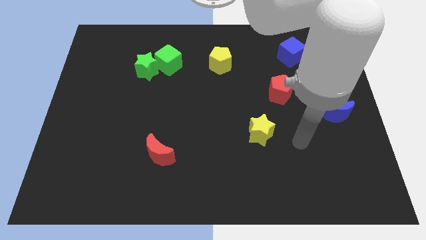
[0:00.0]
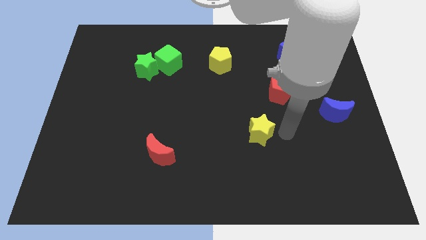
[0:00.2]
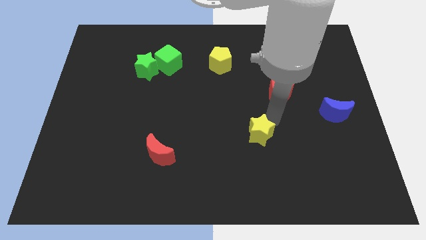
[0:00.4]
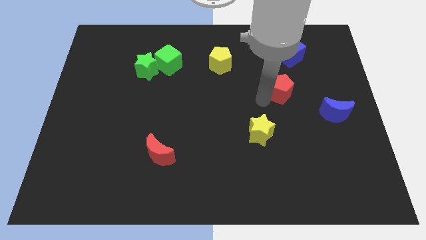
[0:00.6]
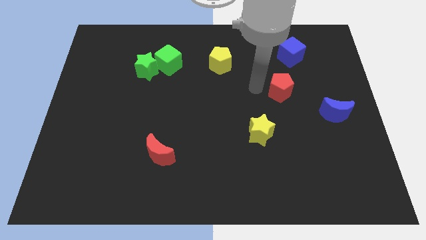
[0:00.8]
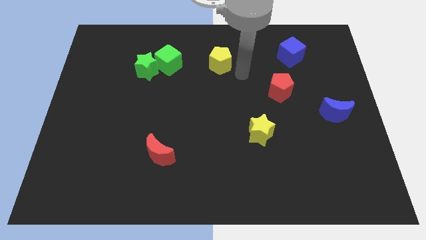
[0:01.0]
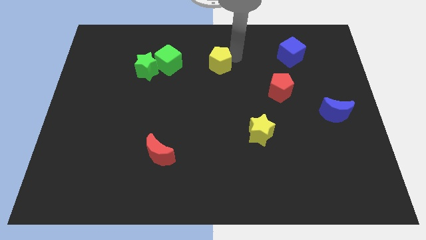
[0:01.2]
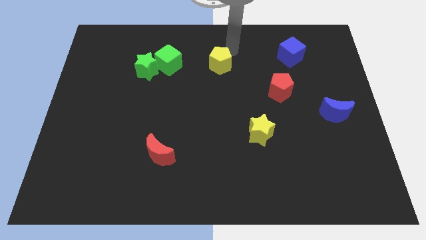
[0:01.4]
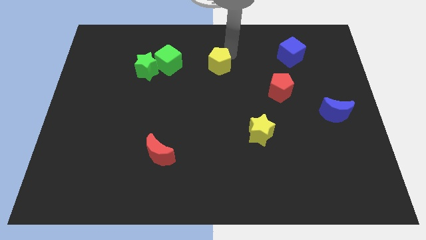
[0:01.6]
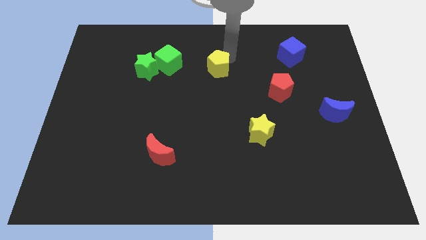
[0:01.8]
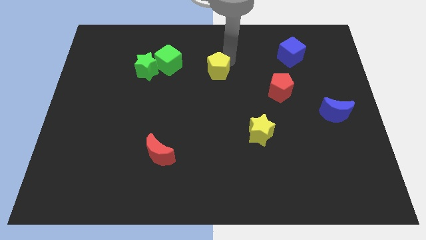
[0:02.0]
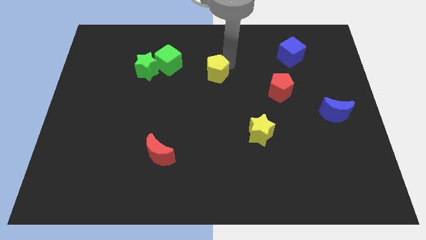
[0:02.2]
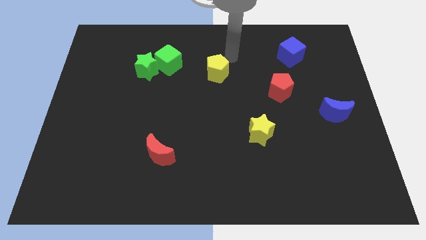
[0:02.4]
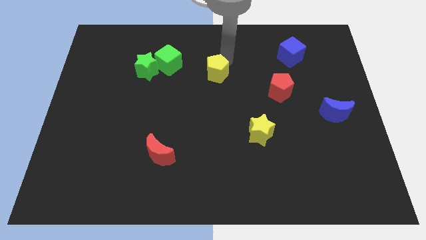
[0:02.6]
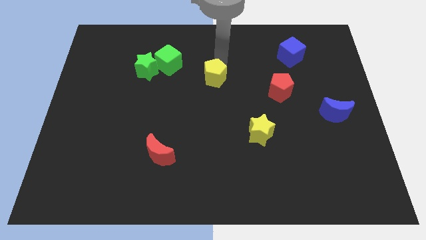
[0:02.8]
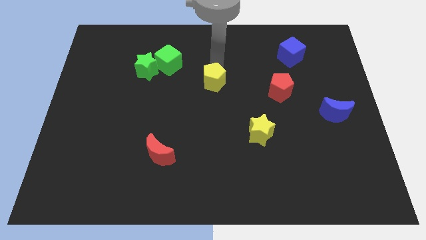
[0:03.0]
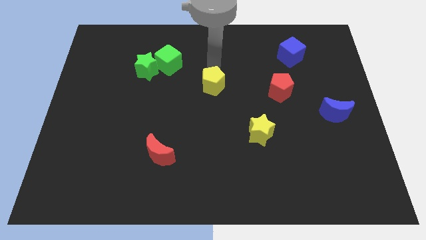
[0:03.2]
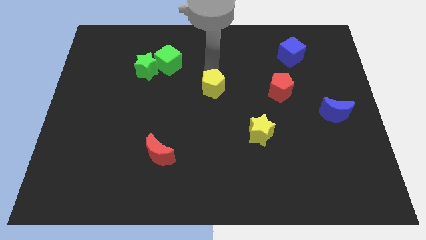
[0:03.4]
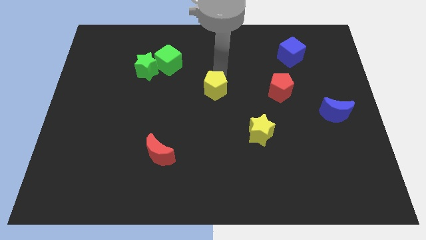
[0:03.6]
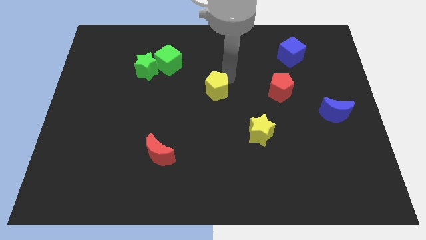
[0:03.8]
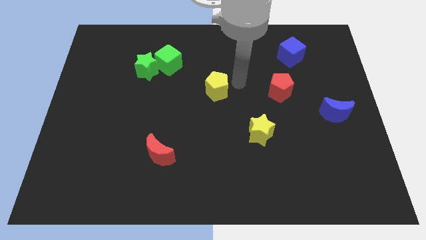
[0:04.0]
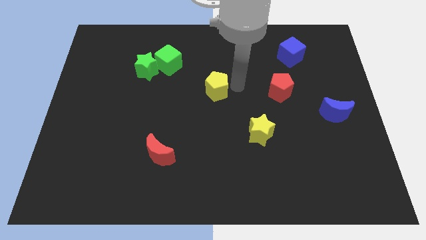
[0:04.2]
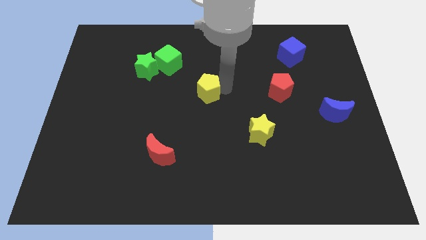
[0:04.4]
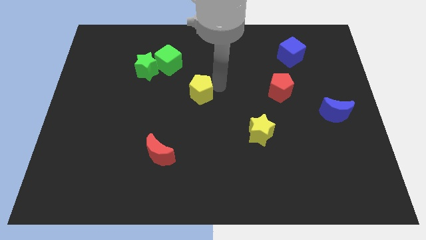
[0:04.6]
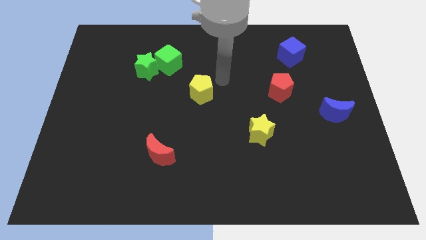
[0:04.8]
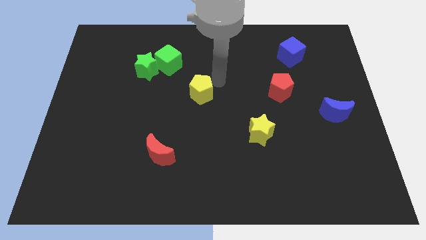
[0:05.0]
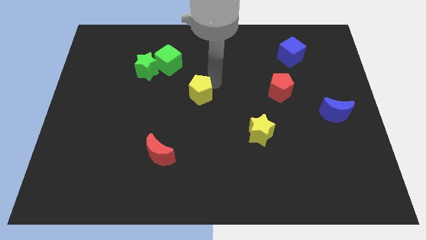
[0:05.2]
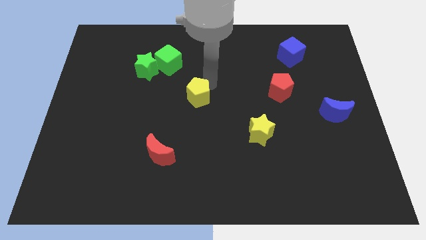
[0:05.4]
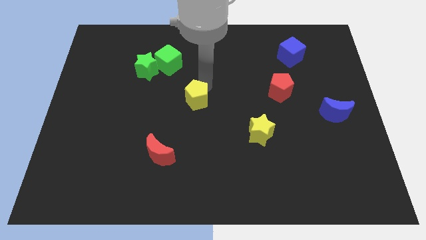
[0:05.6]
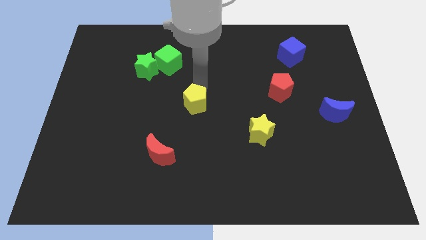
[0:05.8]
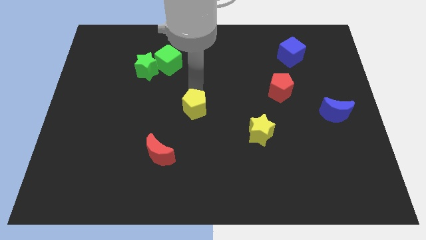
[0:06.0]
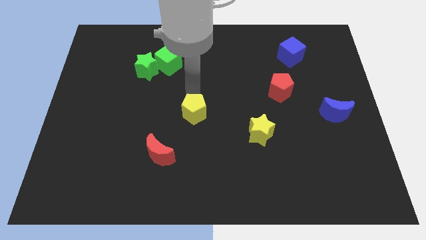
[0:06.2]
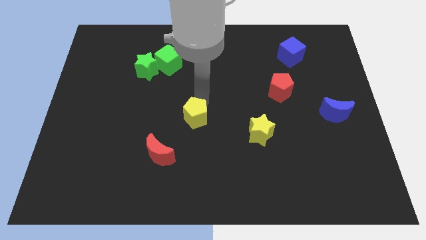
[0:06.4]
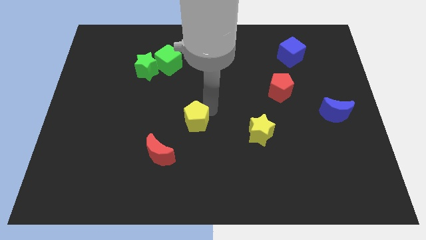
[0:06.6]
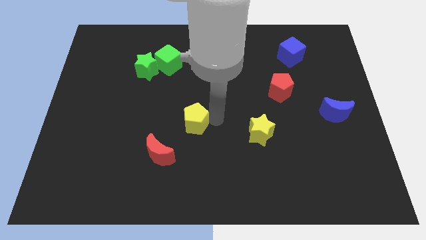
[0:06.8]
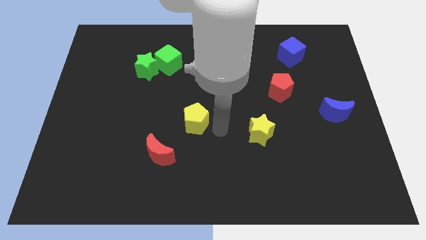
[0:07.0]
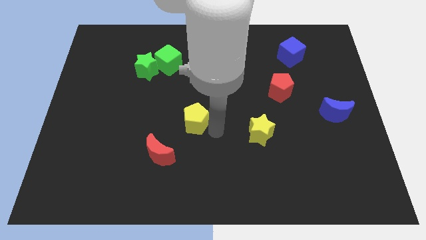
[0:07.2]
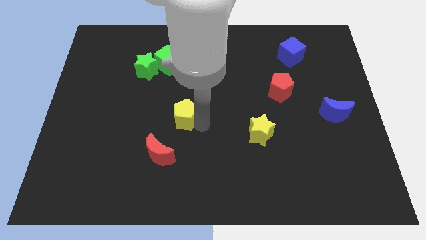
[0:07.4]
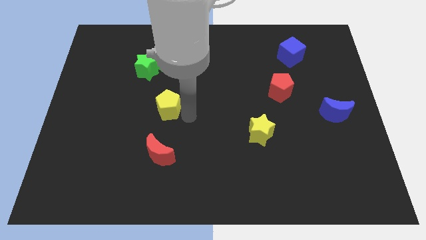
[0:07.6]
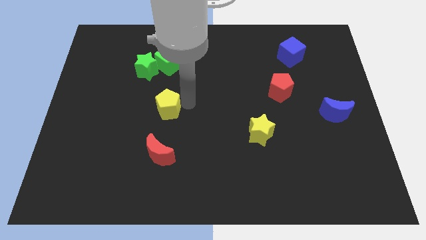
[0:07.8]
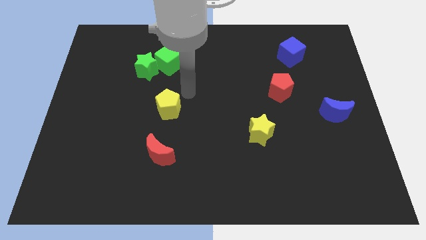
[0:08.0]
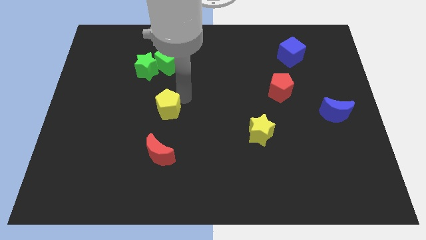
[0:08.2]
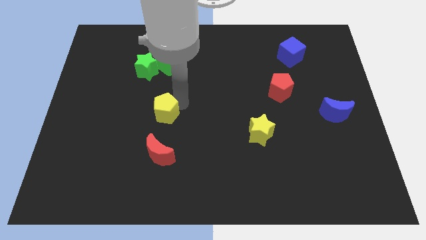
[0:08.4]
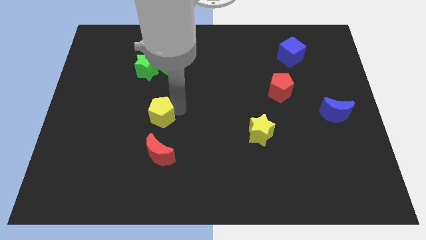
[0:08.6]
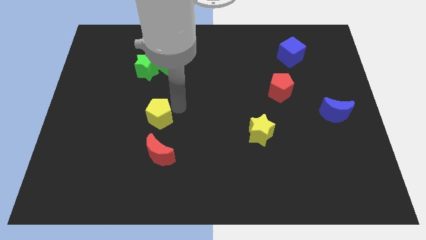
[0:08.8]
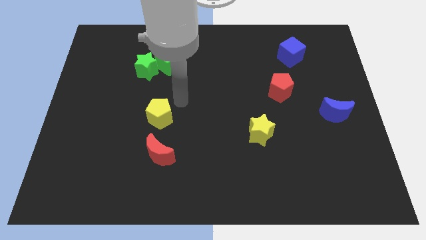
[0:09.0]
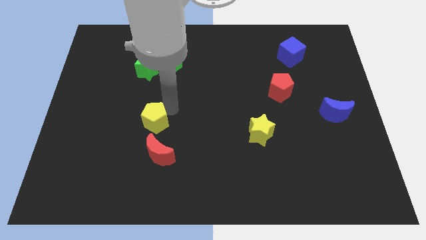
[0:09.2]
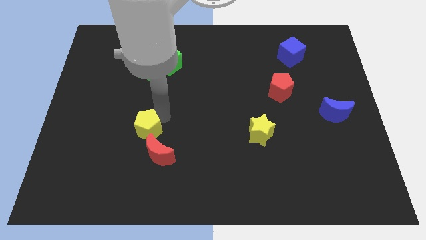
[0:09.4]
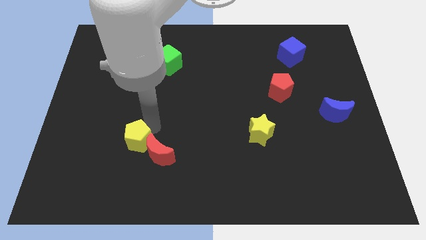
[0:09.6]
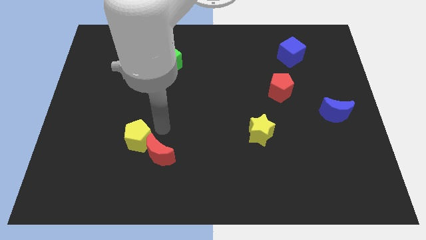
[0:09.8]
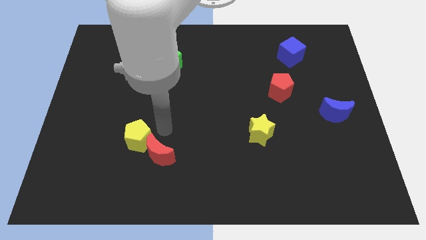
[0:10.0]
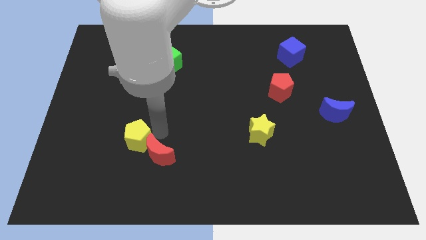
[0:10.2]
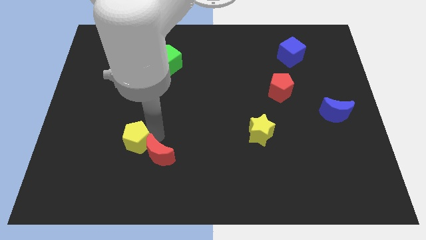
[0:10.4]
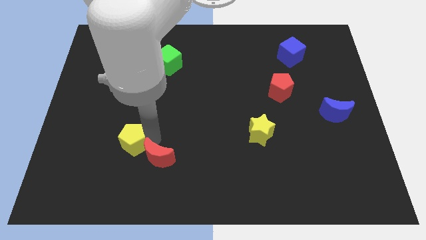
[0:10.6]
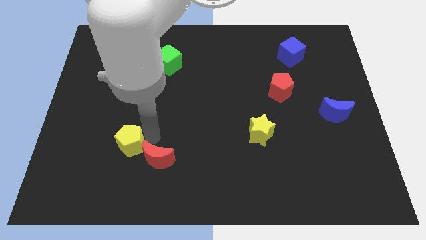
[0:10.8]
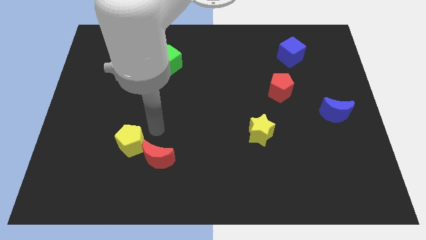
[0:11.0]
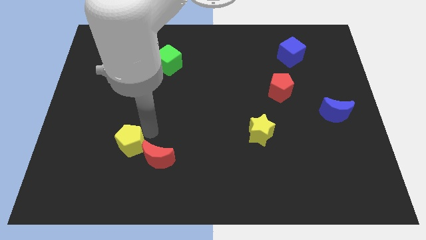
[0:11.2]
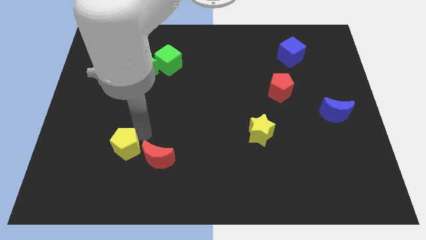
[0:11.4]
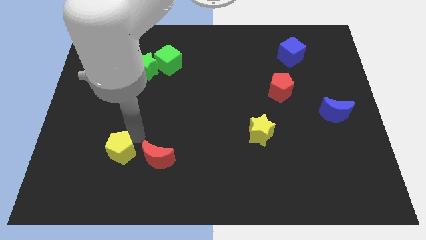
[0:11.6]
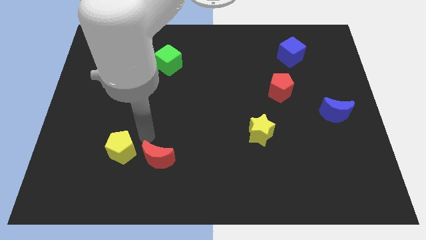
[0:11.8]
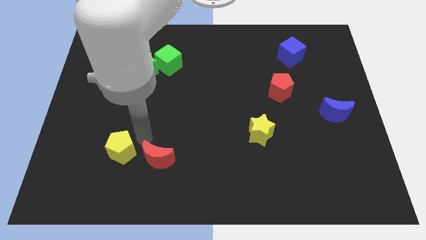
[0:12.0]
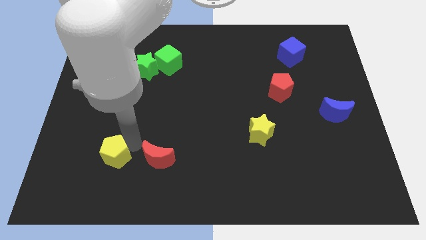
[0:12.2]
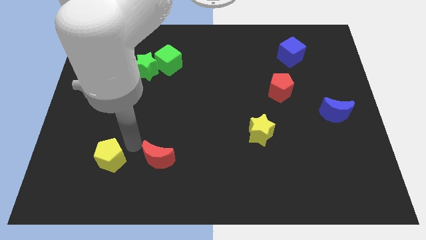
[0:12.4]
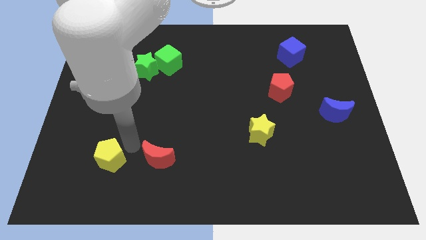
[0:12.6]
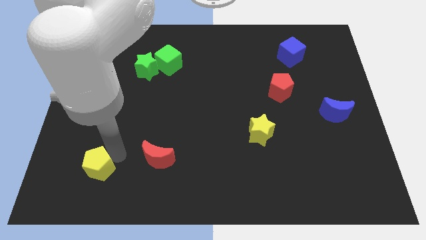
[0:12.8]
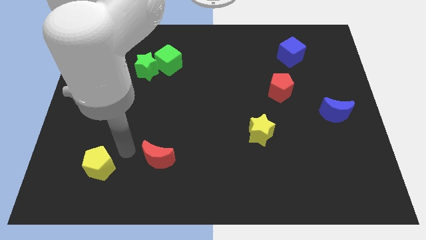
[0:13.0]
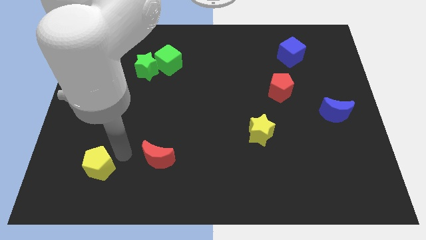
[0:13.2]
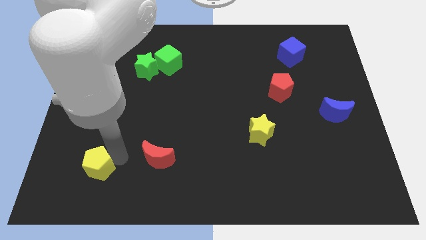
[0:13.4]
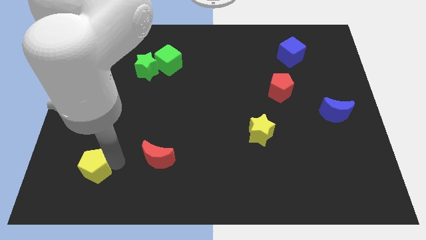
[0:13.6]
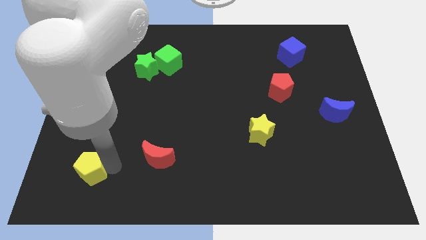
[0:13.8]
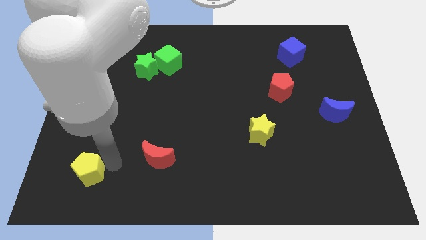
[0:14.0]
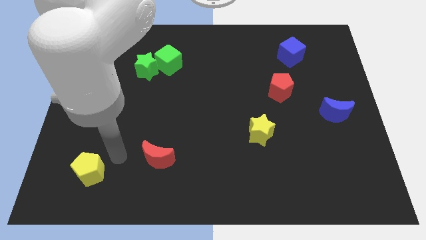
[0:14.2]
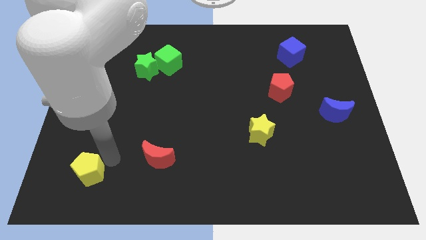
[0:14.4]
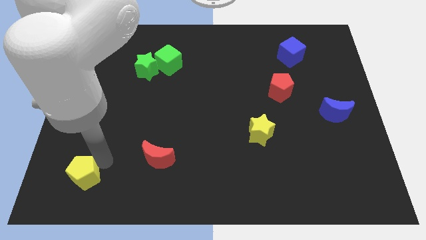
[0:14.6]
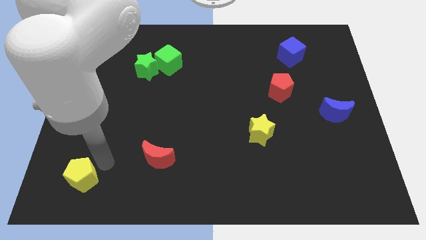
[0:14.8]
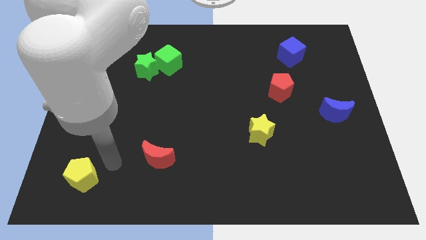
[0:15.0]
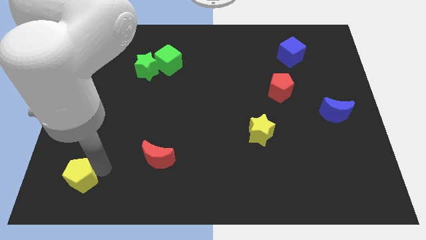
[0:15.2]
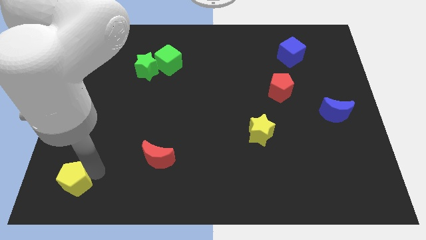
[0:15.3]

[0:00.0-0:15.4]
put the yellow pentagon to the bottom left corner
